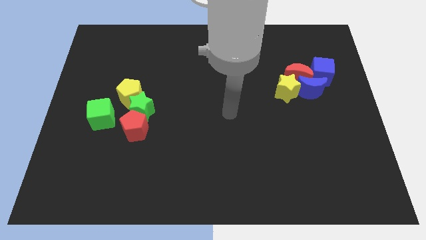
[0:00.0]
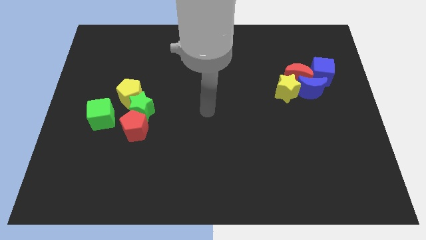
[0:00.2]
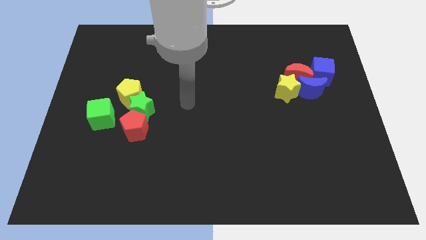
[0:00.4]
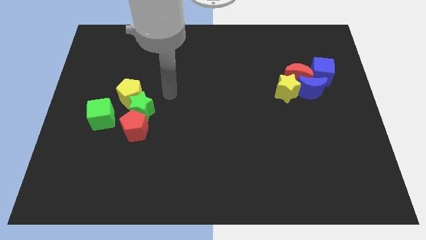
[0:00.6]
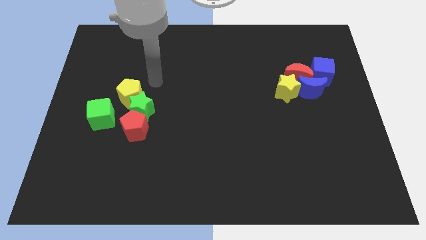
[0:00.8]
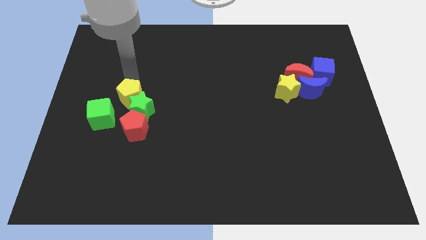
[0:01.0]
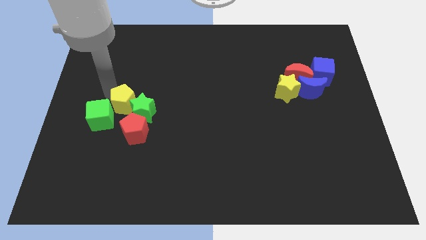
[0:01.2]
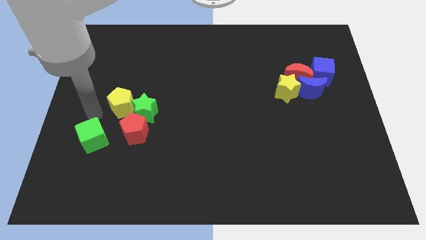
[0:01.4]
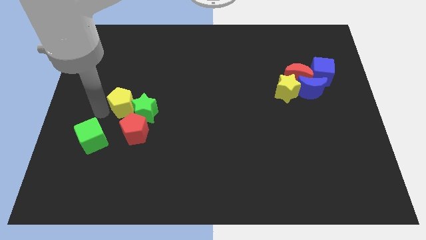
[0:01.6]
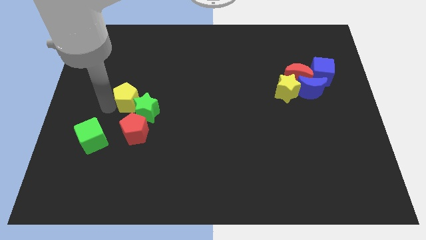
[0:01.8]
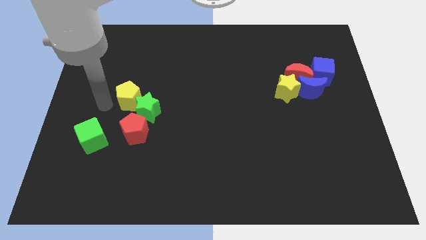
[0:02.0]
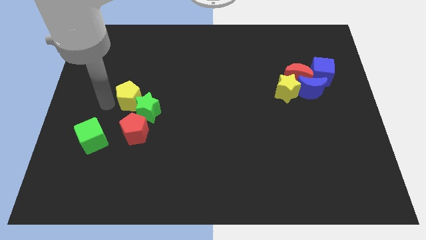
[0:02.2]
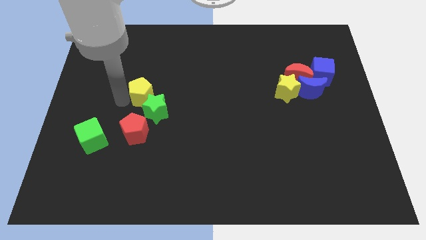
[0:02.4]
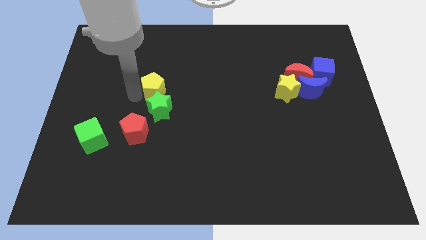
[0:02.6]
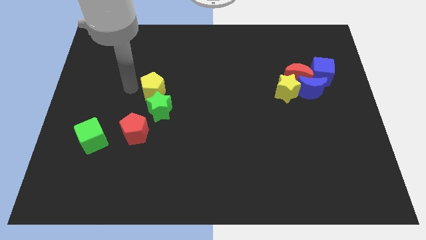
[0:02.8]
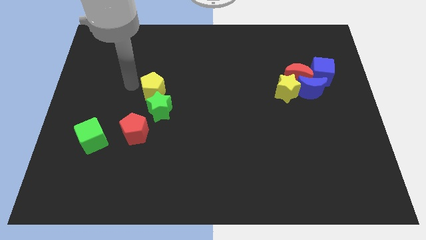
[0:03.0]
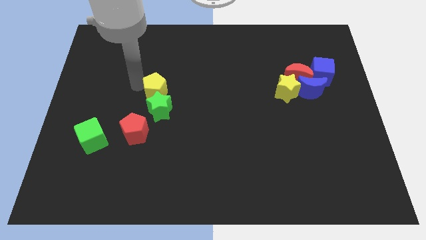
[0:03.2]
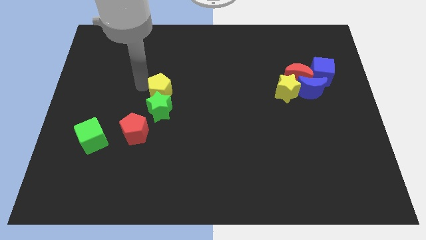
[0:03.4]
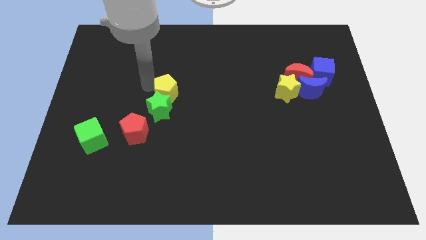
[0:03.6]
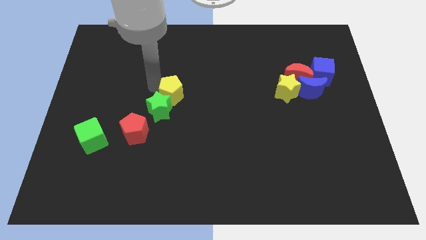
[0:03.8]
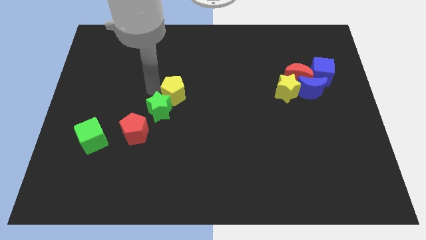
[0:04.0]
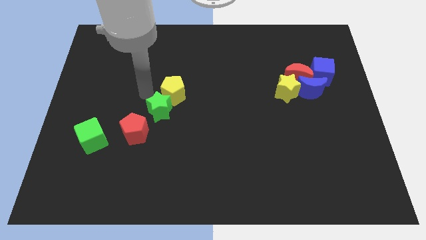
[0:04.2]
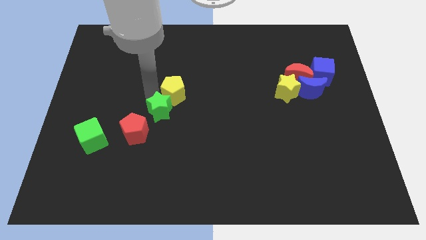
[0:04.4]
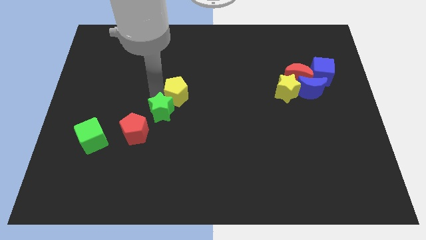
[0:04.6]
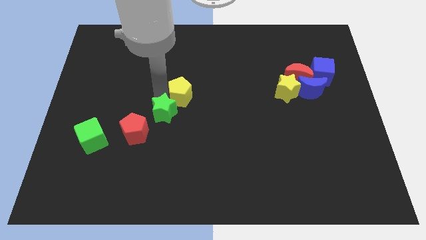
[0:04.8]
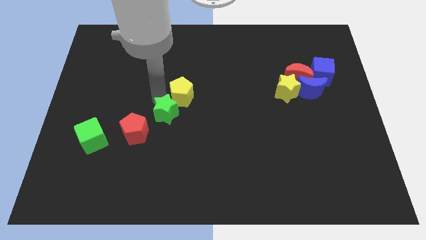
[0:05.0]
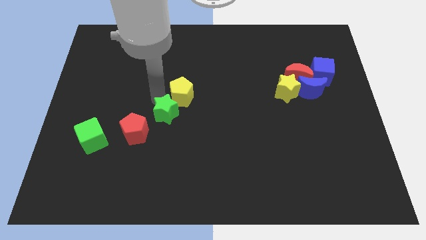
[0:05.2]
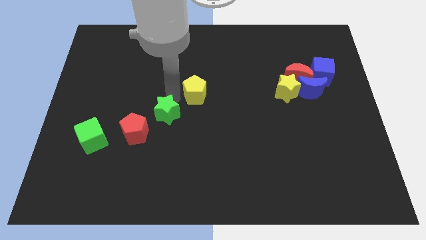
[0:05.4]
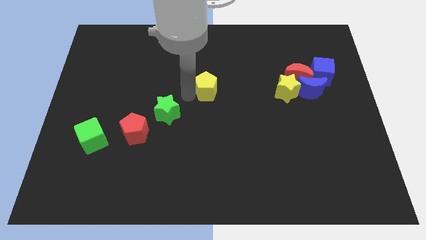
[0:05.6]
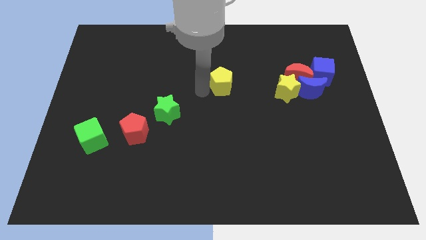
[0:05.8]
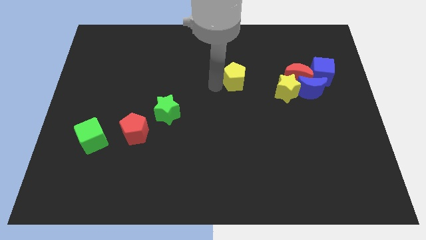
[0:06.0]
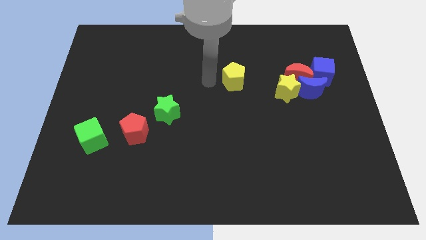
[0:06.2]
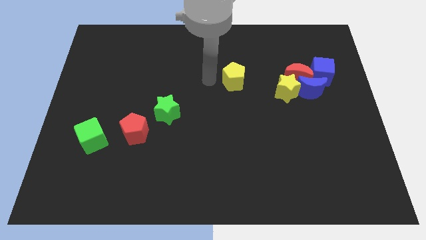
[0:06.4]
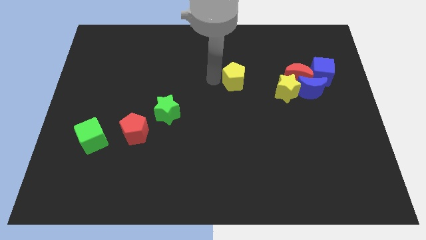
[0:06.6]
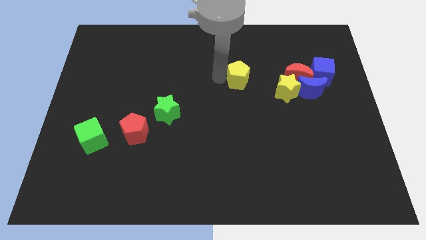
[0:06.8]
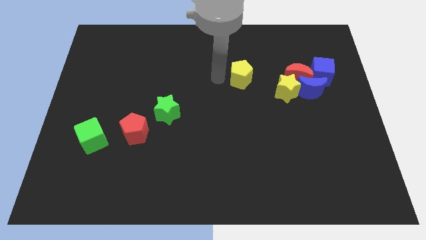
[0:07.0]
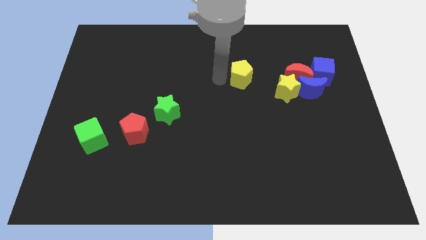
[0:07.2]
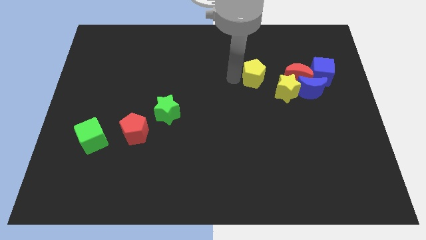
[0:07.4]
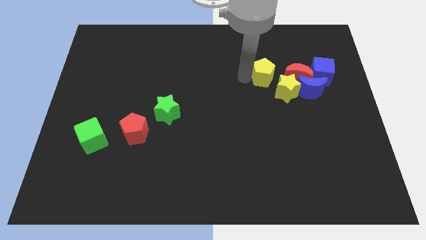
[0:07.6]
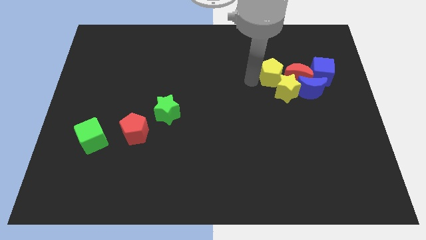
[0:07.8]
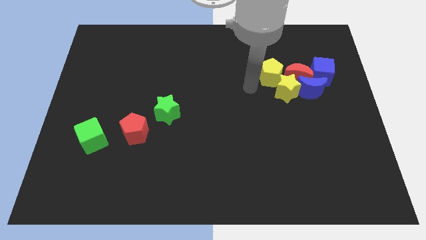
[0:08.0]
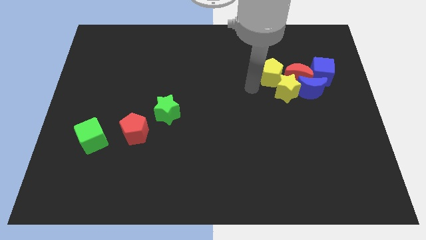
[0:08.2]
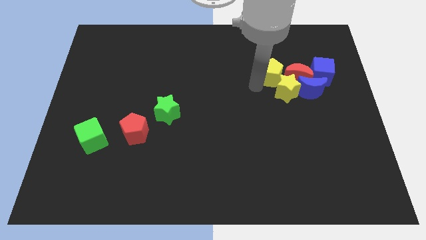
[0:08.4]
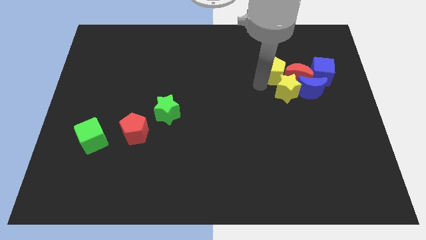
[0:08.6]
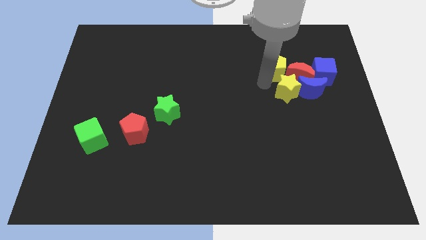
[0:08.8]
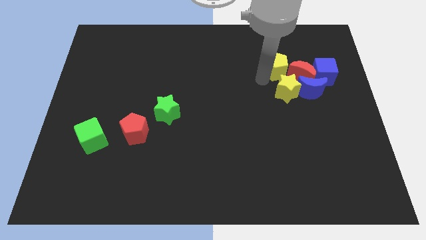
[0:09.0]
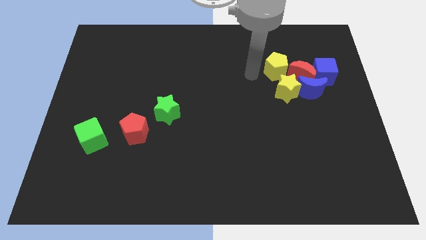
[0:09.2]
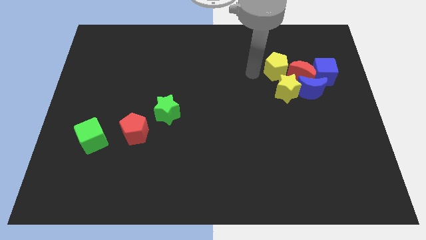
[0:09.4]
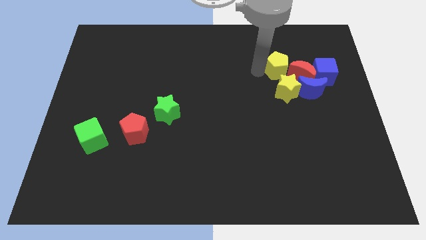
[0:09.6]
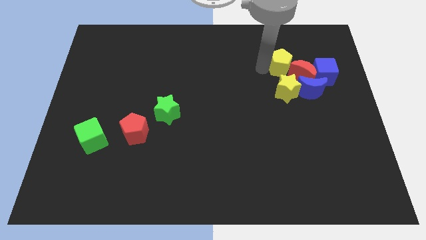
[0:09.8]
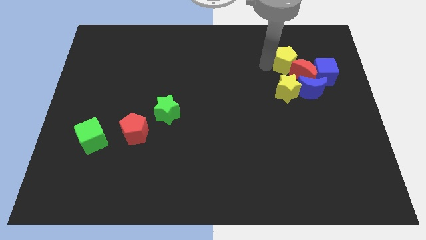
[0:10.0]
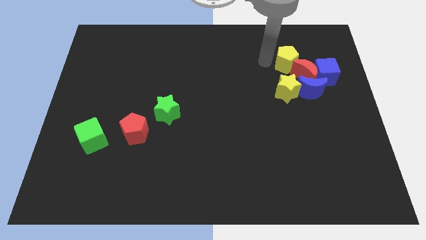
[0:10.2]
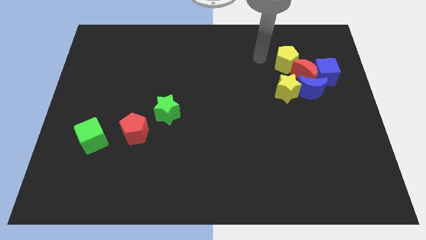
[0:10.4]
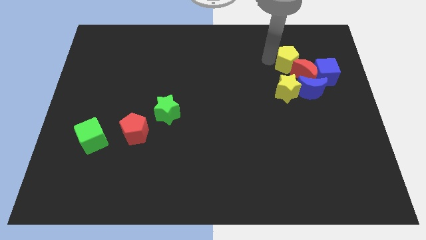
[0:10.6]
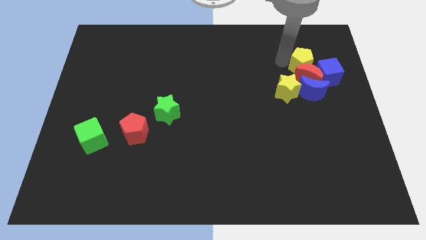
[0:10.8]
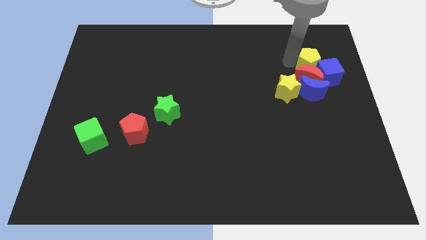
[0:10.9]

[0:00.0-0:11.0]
move the yellow pentagon to the blue cube

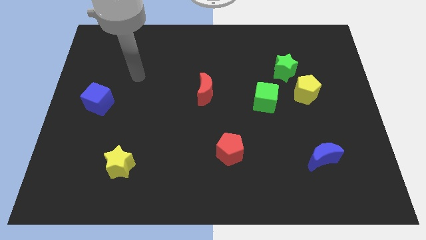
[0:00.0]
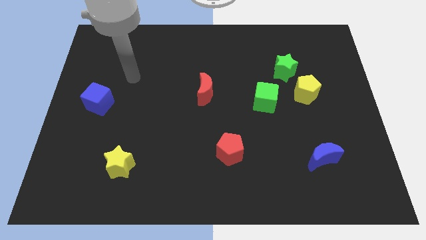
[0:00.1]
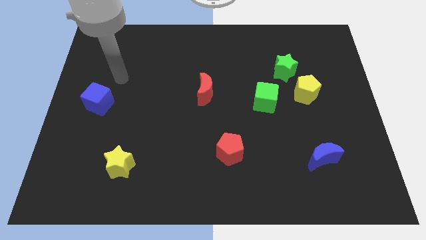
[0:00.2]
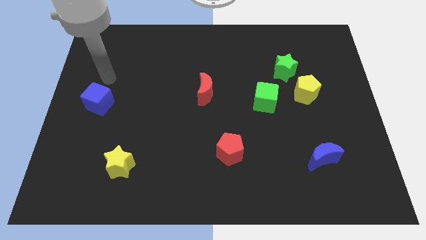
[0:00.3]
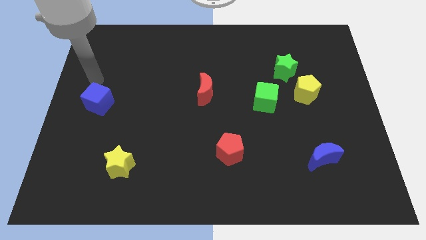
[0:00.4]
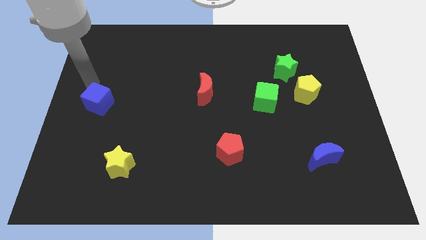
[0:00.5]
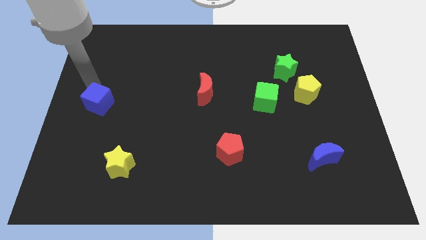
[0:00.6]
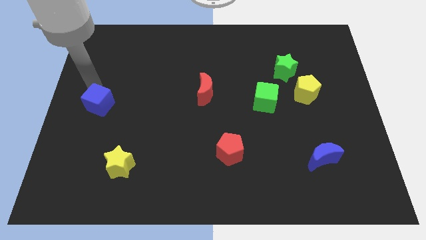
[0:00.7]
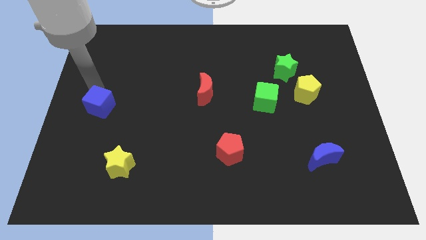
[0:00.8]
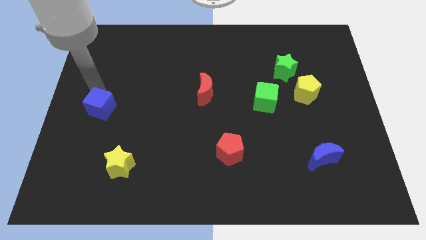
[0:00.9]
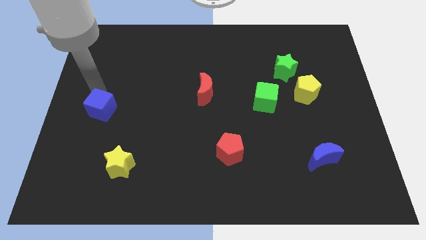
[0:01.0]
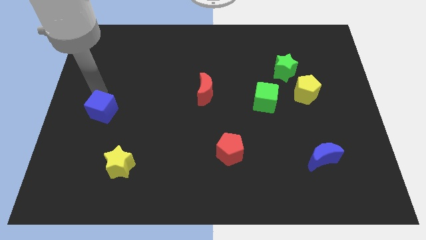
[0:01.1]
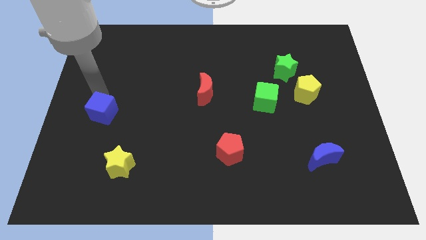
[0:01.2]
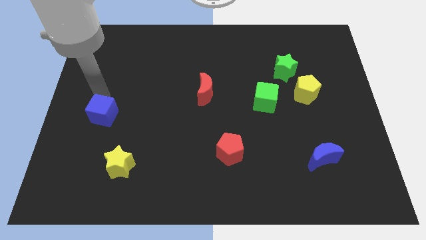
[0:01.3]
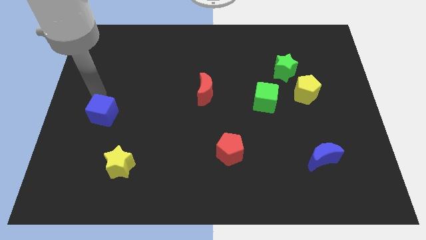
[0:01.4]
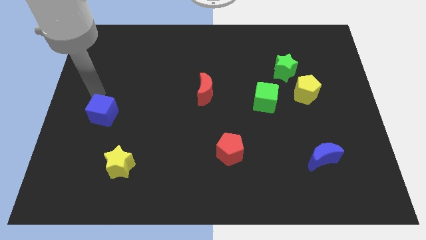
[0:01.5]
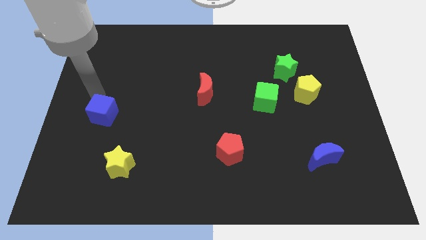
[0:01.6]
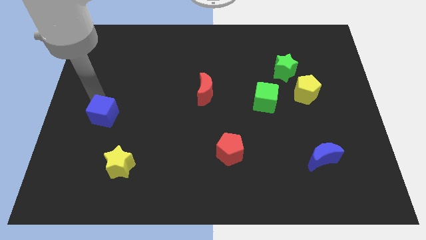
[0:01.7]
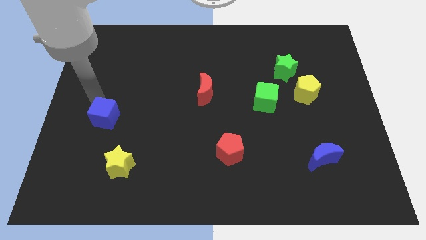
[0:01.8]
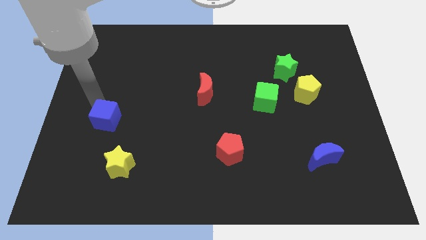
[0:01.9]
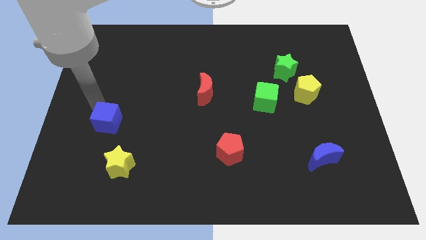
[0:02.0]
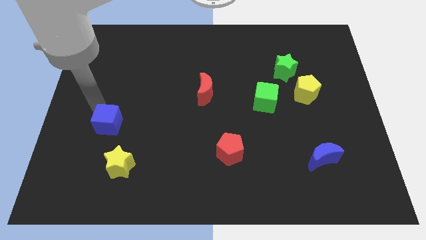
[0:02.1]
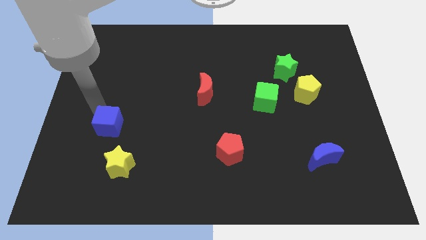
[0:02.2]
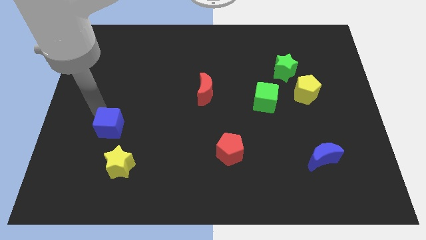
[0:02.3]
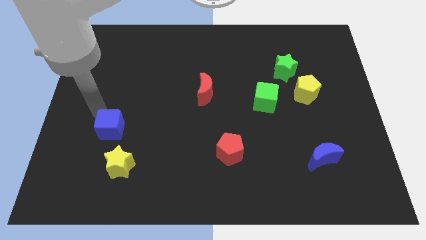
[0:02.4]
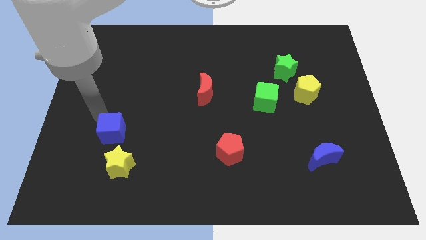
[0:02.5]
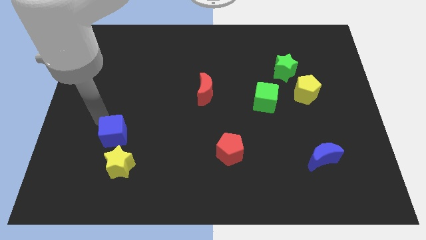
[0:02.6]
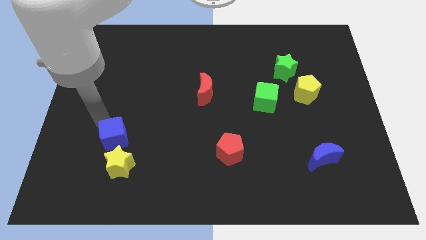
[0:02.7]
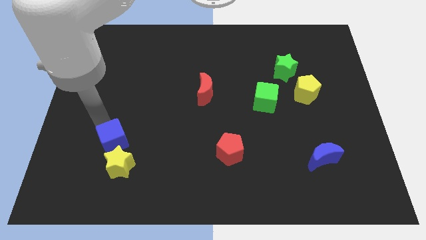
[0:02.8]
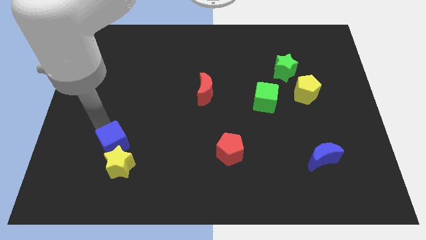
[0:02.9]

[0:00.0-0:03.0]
move the blue cube next to the yellow star
